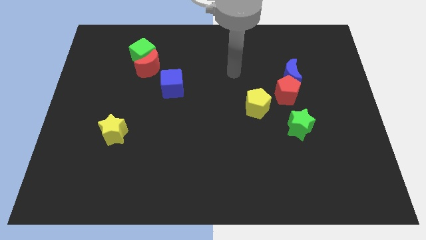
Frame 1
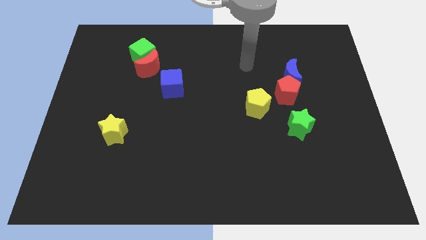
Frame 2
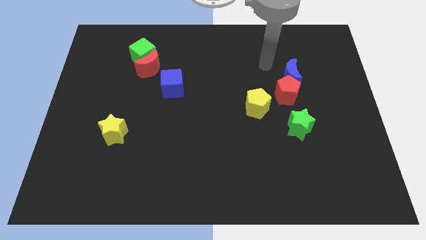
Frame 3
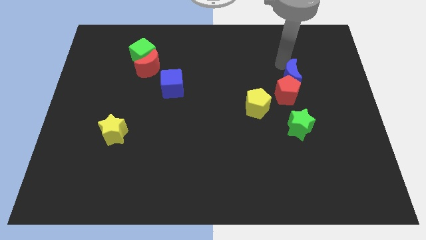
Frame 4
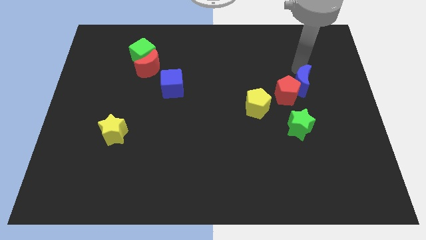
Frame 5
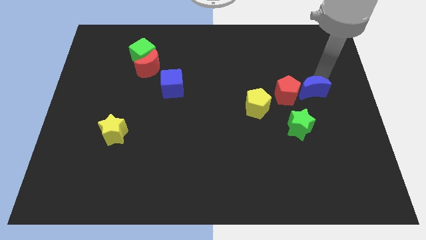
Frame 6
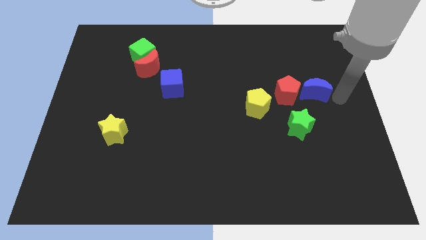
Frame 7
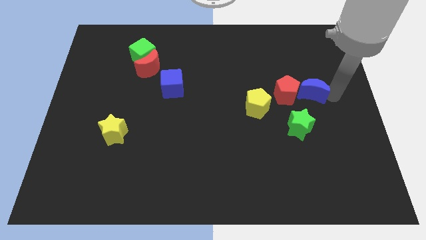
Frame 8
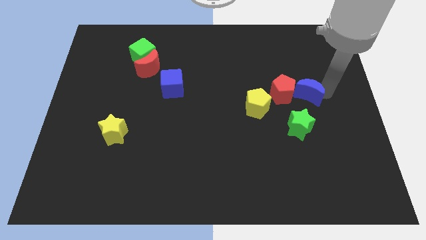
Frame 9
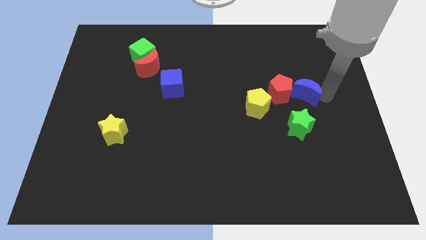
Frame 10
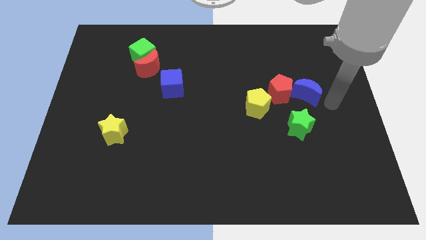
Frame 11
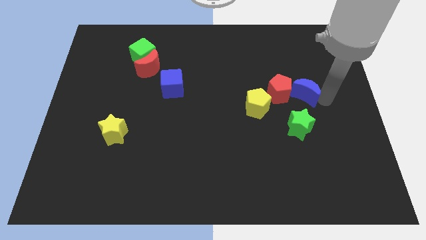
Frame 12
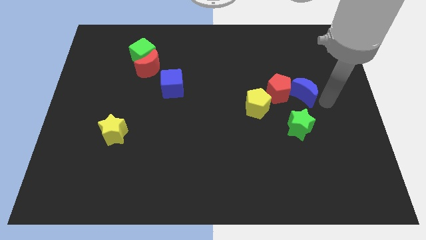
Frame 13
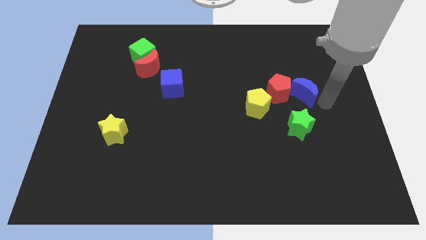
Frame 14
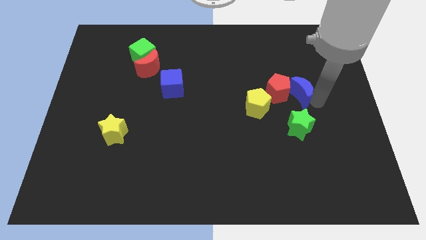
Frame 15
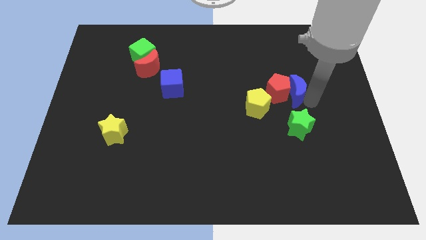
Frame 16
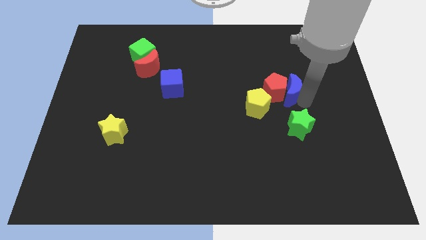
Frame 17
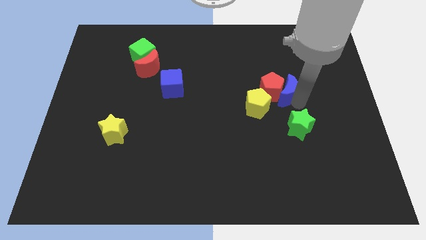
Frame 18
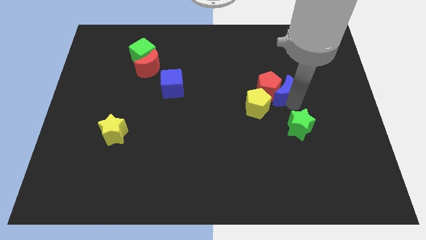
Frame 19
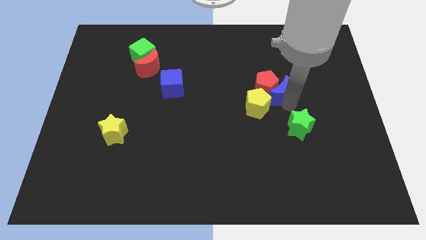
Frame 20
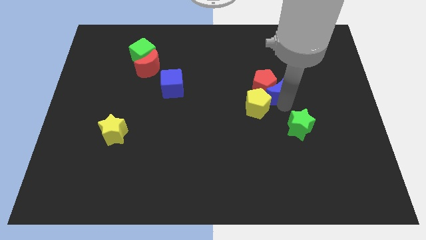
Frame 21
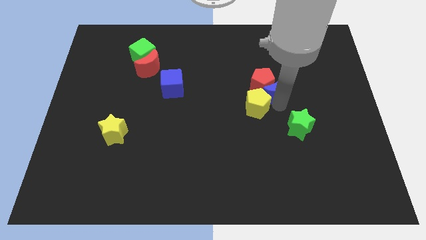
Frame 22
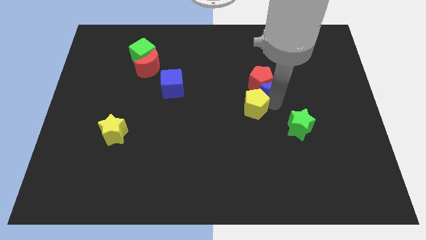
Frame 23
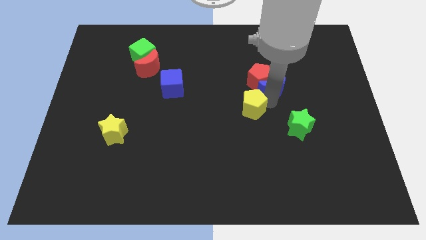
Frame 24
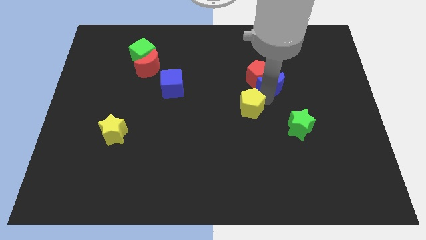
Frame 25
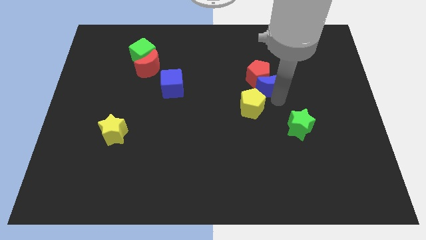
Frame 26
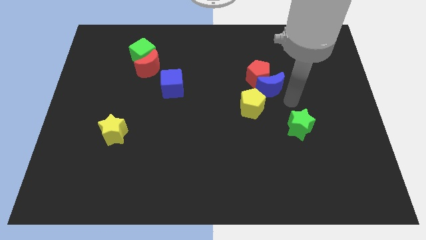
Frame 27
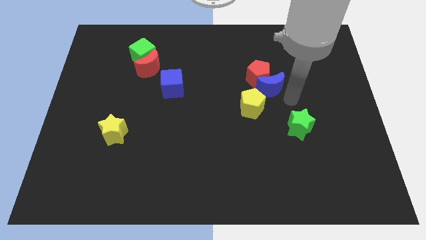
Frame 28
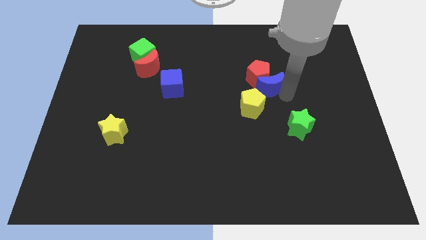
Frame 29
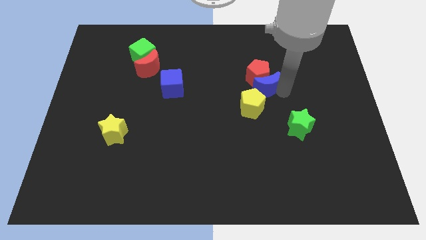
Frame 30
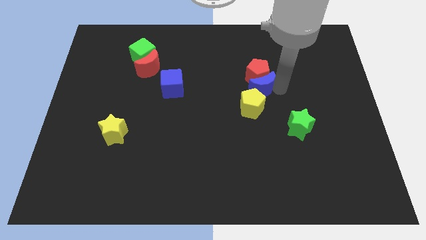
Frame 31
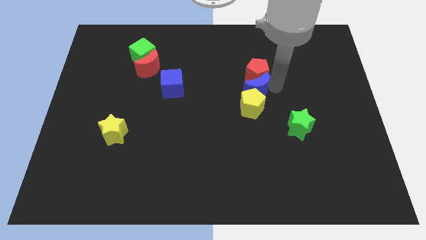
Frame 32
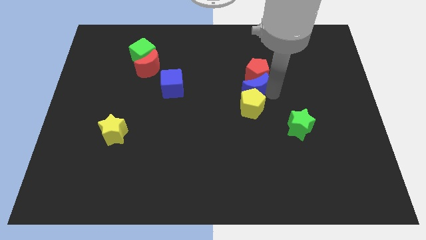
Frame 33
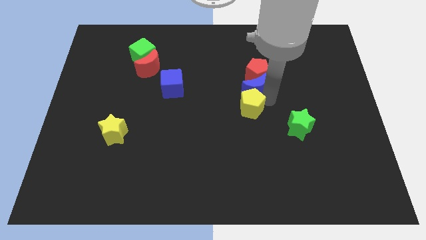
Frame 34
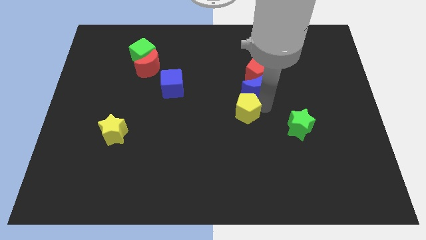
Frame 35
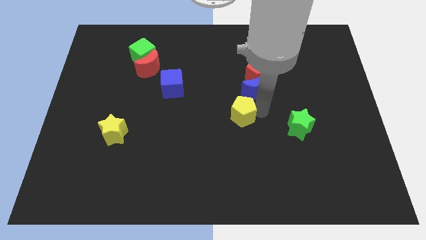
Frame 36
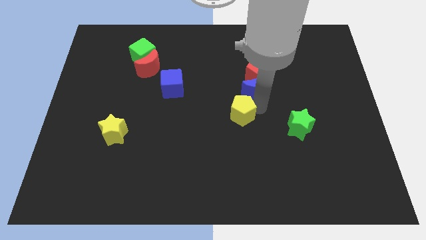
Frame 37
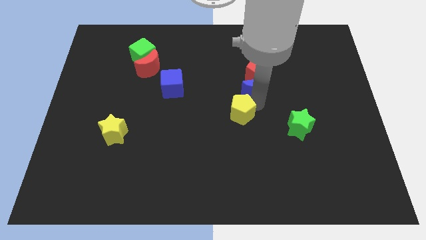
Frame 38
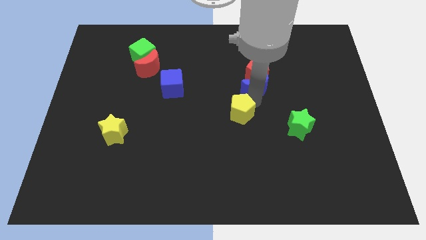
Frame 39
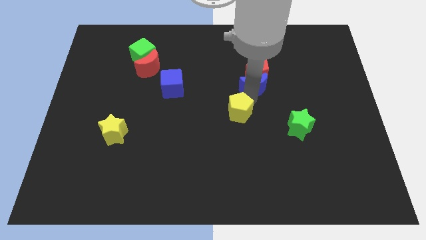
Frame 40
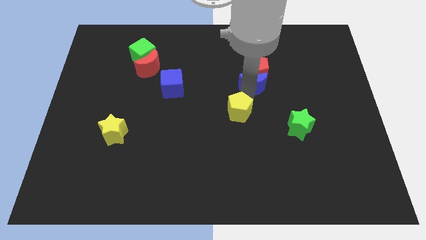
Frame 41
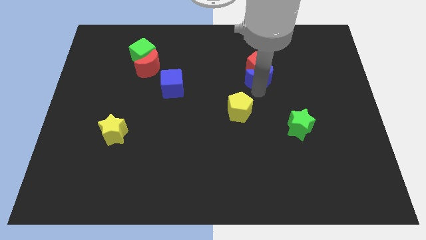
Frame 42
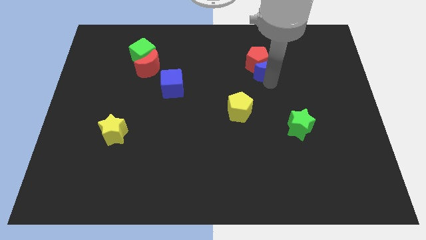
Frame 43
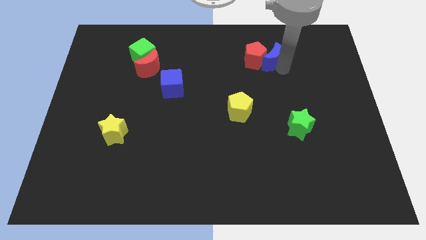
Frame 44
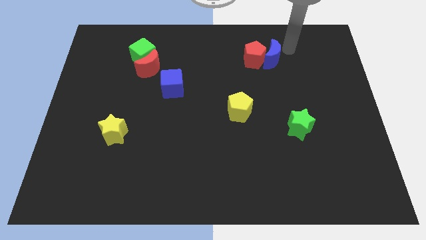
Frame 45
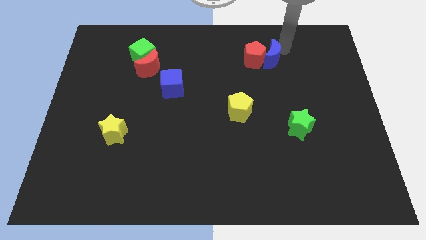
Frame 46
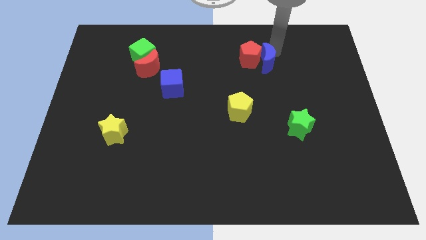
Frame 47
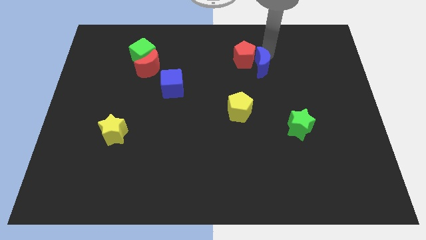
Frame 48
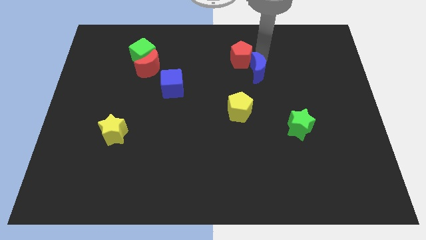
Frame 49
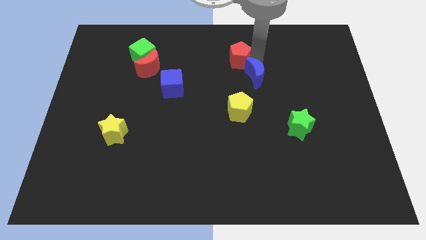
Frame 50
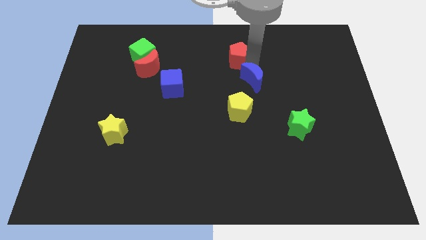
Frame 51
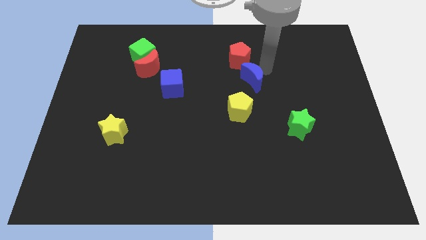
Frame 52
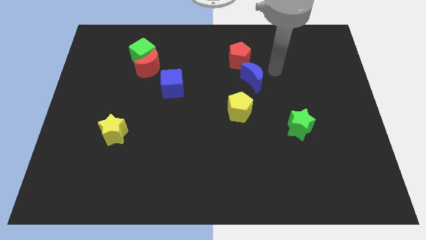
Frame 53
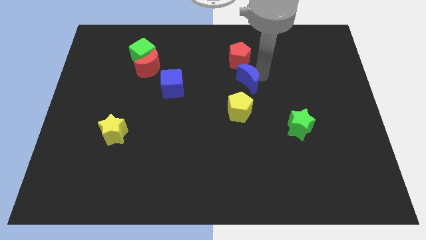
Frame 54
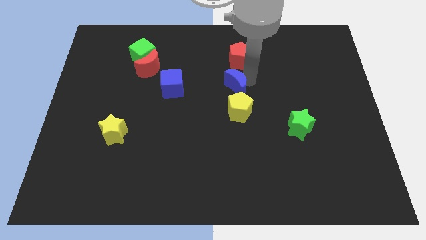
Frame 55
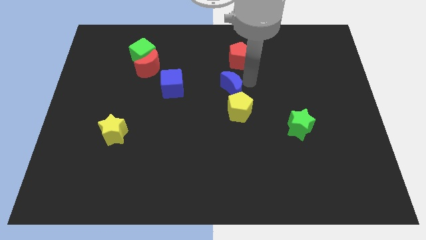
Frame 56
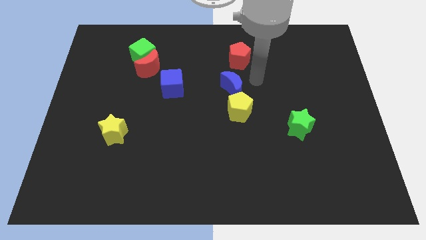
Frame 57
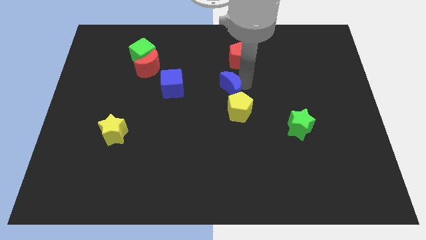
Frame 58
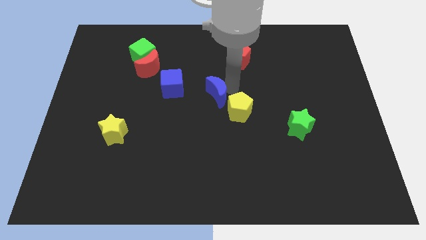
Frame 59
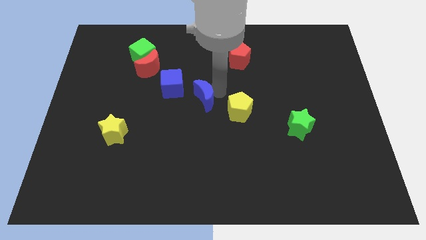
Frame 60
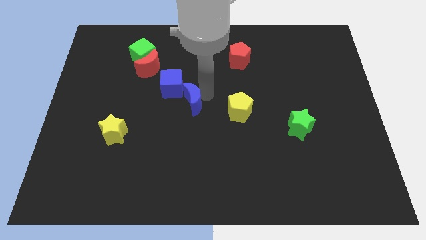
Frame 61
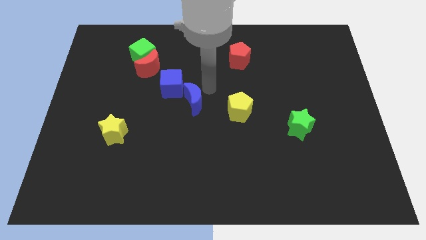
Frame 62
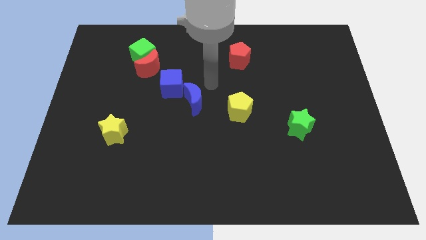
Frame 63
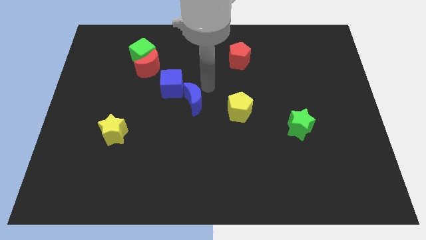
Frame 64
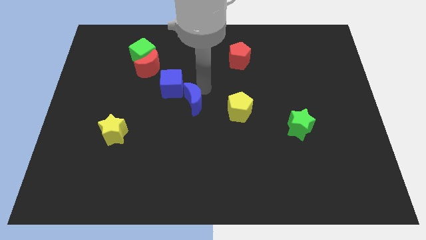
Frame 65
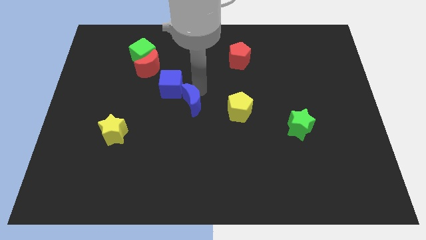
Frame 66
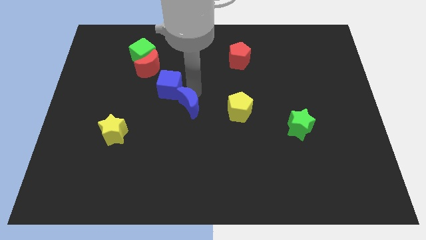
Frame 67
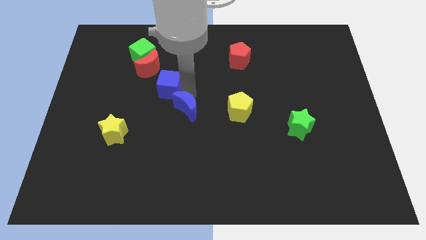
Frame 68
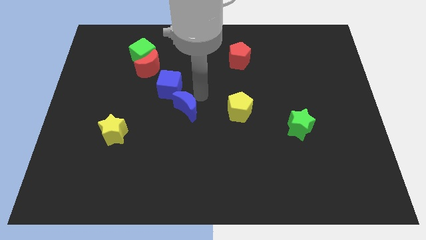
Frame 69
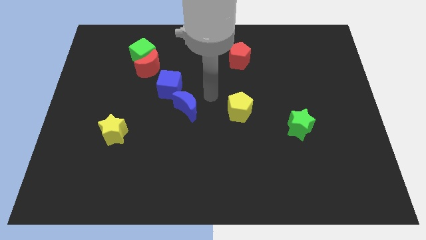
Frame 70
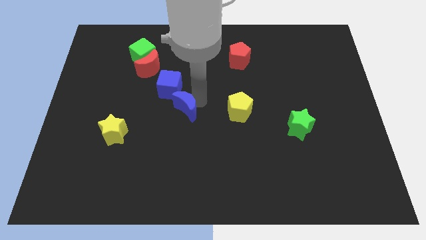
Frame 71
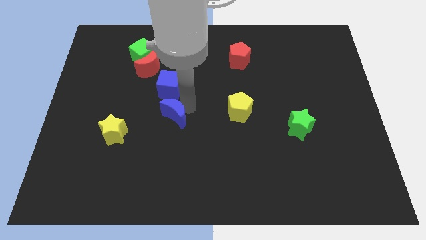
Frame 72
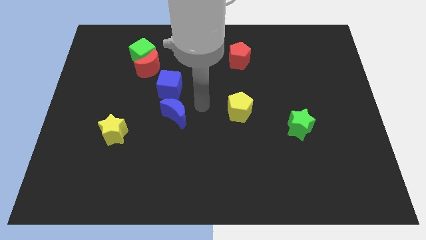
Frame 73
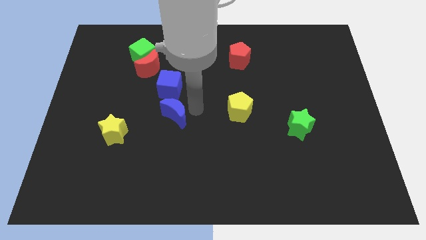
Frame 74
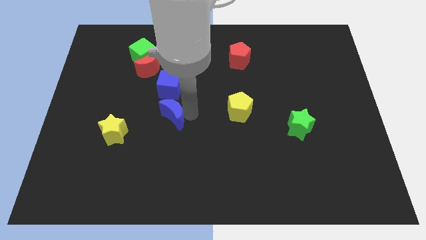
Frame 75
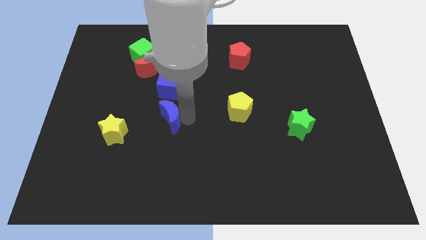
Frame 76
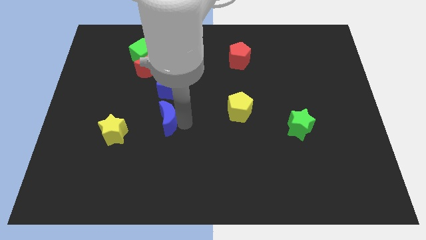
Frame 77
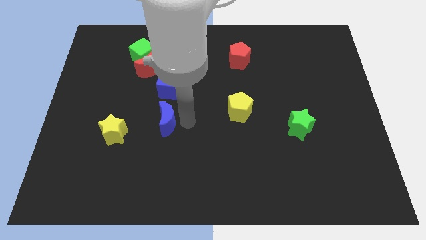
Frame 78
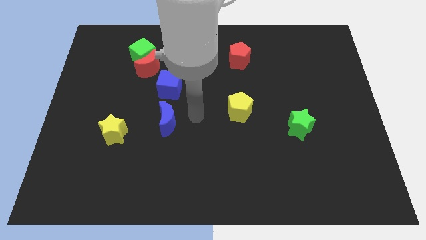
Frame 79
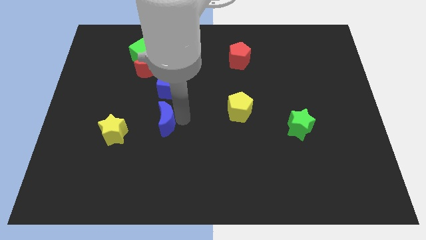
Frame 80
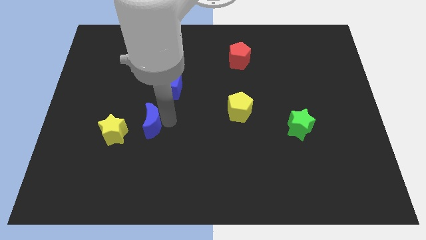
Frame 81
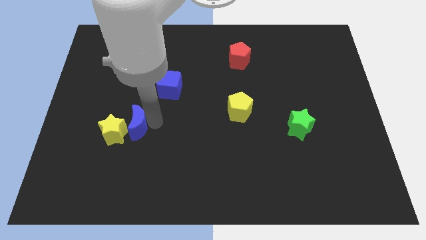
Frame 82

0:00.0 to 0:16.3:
slide the blue moon next to the yellow star
